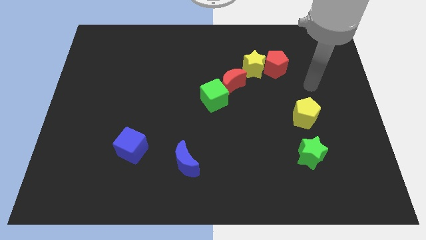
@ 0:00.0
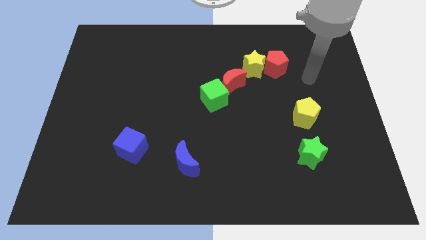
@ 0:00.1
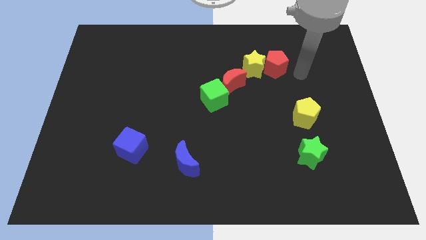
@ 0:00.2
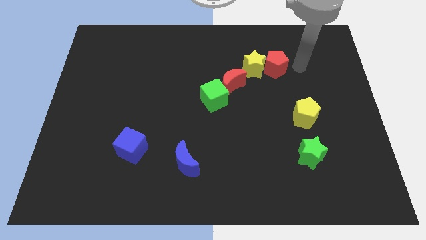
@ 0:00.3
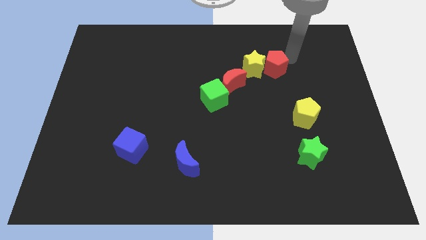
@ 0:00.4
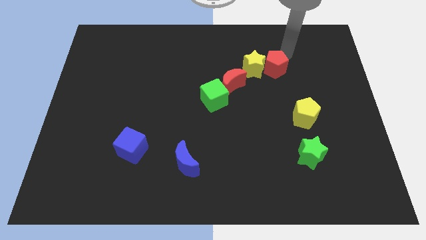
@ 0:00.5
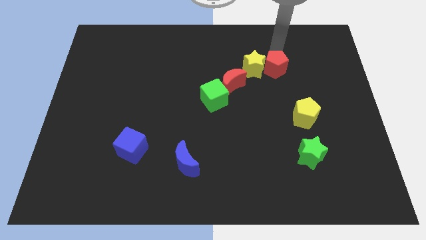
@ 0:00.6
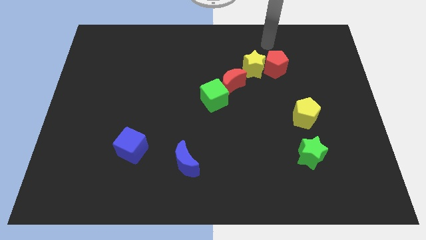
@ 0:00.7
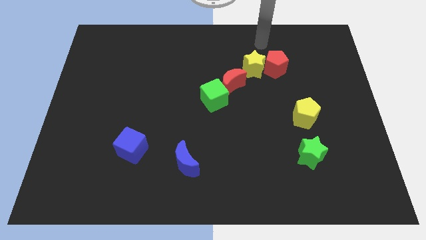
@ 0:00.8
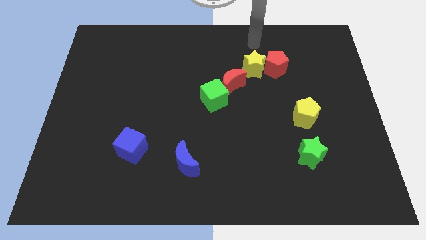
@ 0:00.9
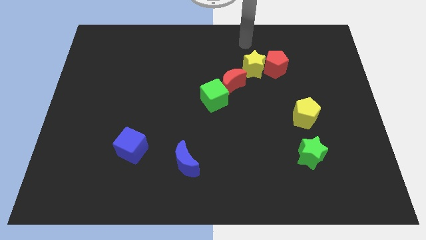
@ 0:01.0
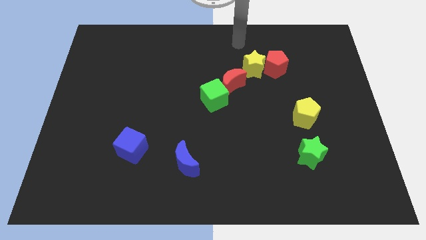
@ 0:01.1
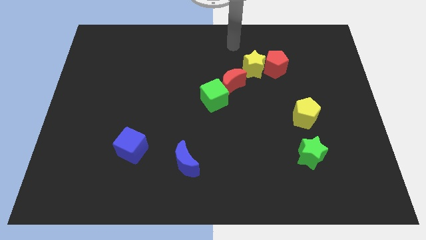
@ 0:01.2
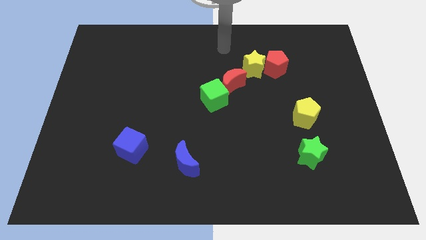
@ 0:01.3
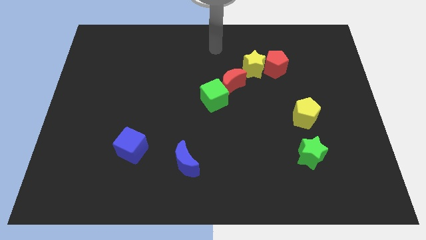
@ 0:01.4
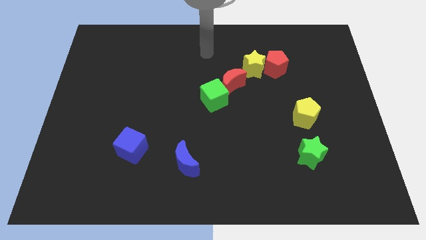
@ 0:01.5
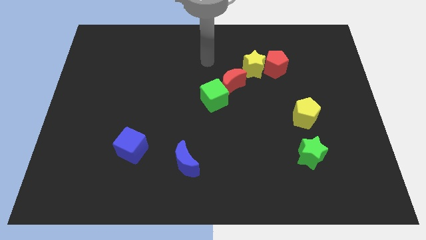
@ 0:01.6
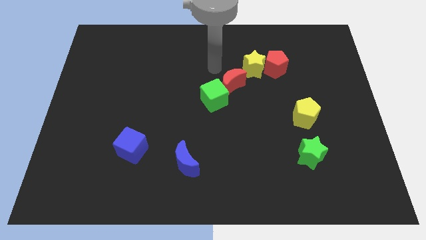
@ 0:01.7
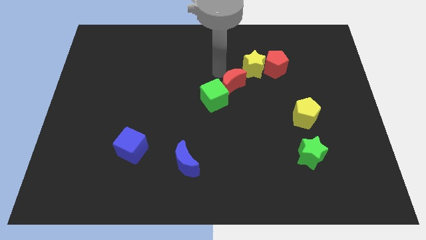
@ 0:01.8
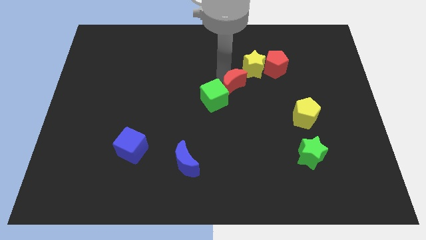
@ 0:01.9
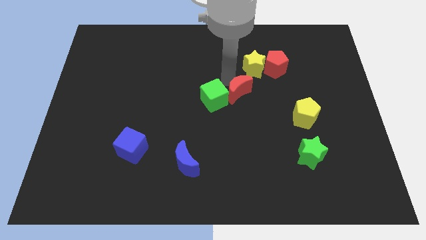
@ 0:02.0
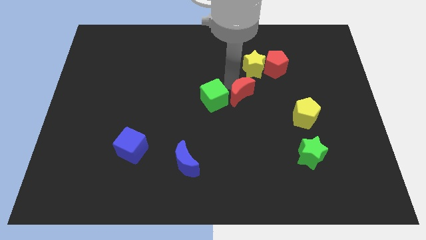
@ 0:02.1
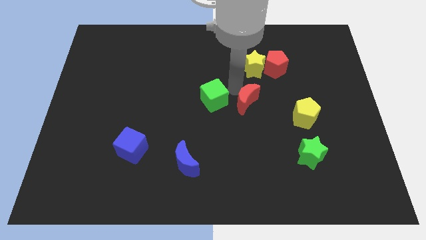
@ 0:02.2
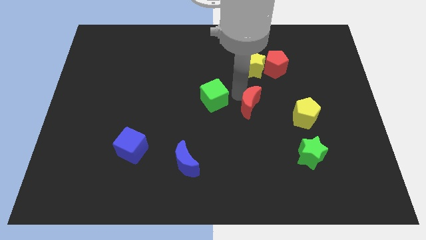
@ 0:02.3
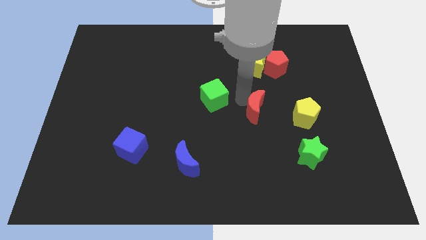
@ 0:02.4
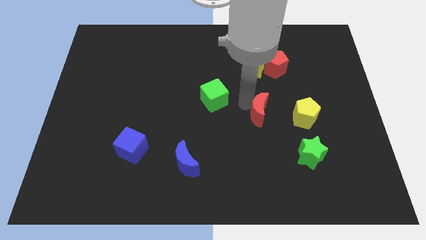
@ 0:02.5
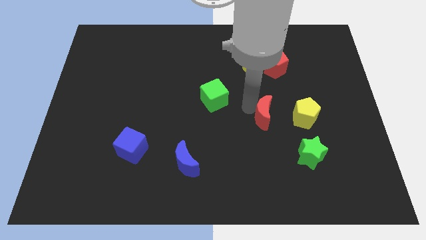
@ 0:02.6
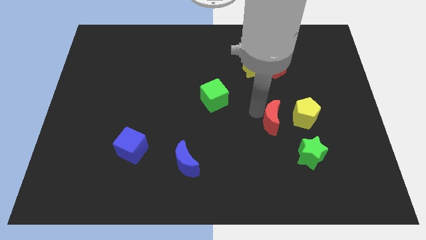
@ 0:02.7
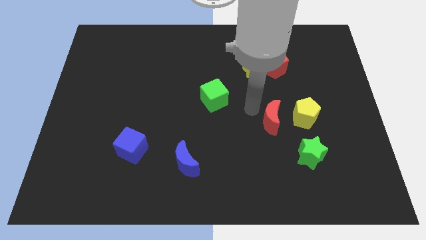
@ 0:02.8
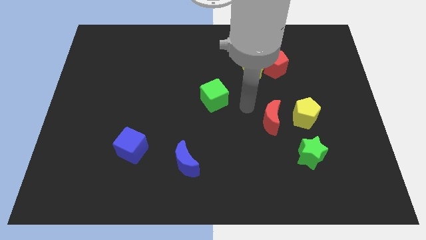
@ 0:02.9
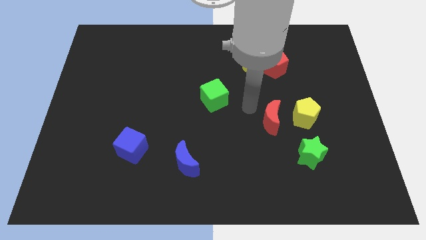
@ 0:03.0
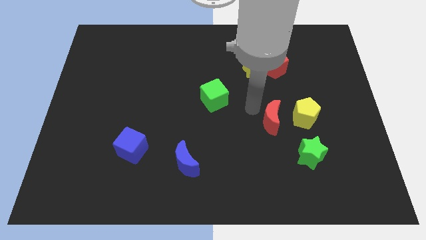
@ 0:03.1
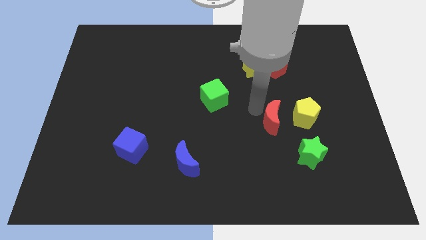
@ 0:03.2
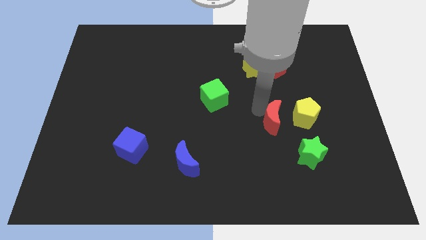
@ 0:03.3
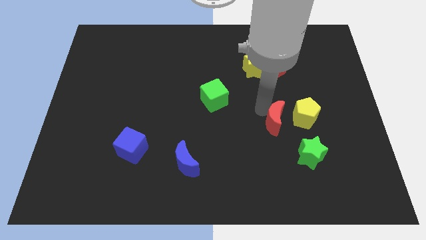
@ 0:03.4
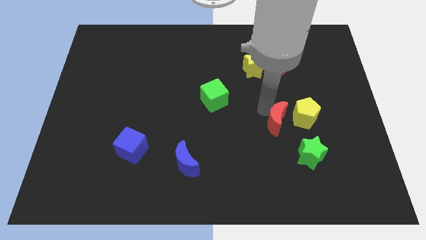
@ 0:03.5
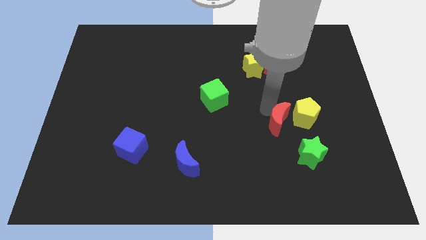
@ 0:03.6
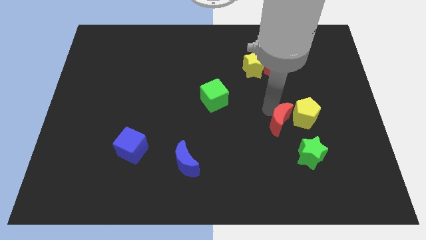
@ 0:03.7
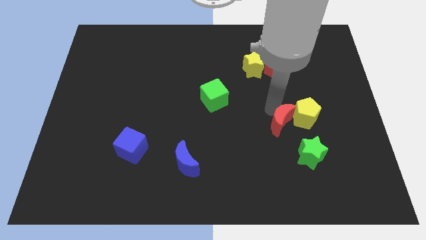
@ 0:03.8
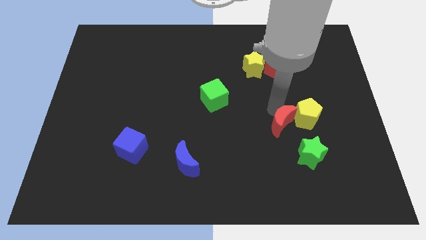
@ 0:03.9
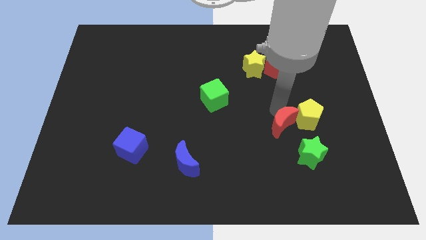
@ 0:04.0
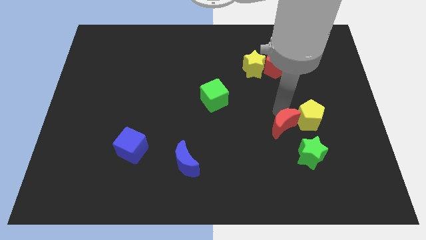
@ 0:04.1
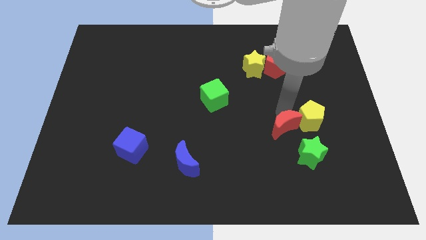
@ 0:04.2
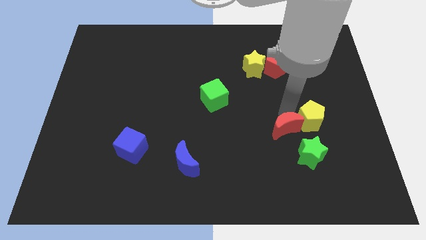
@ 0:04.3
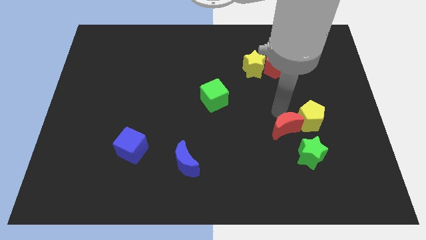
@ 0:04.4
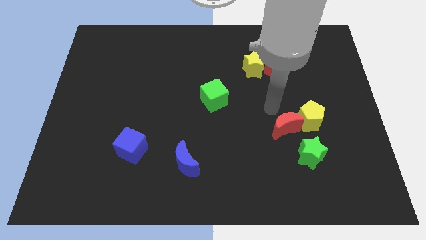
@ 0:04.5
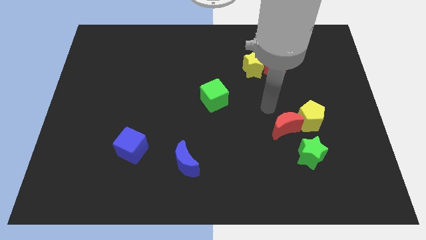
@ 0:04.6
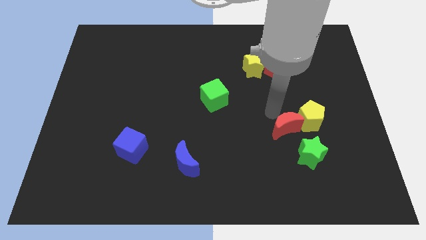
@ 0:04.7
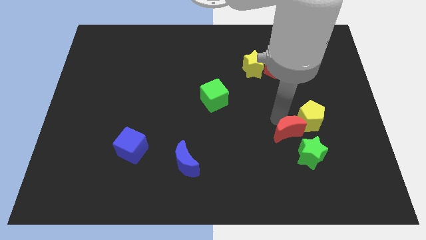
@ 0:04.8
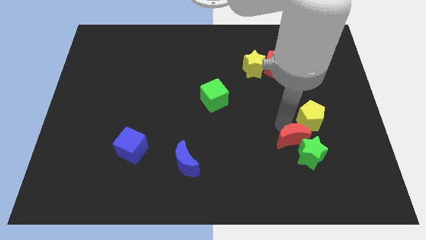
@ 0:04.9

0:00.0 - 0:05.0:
slide the red moon next to the green star

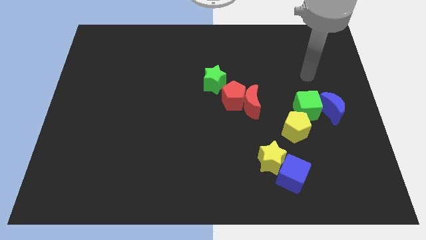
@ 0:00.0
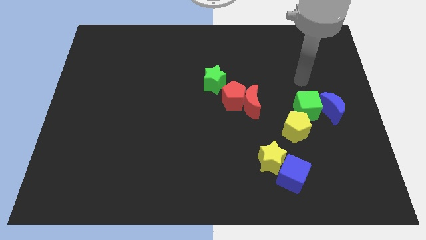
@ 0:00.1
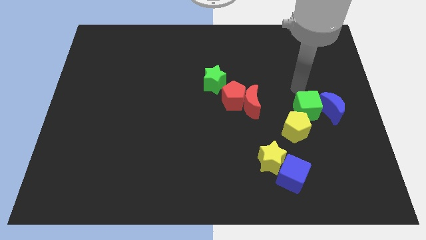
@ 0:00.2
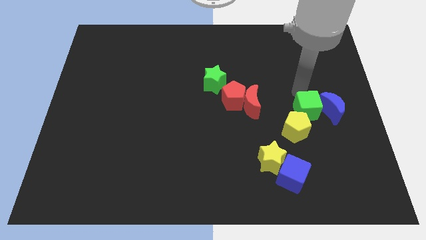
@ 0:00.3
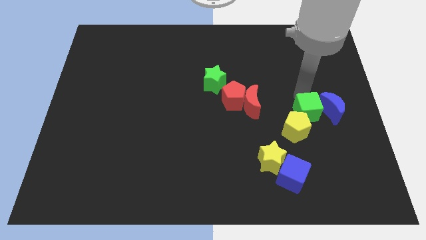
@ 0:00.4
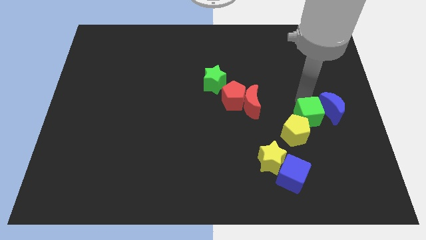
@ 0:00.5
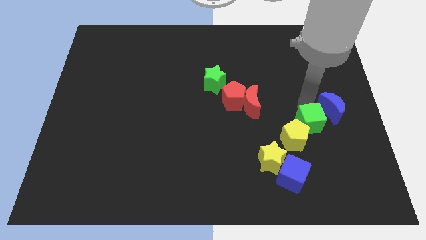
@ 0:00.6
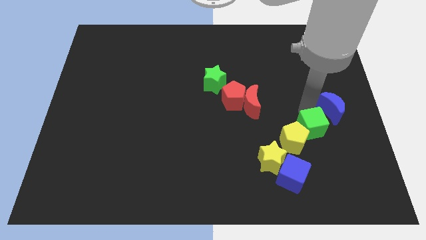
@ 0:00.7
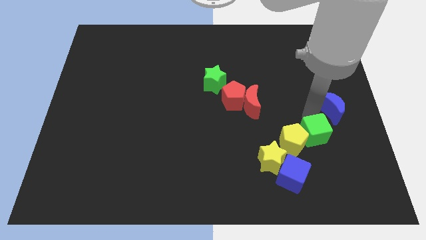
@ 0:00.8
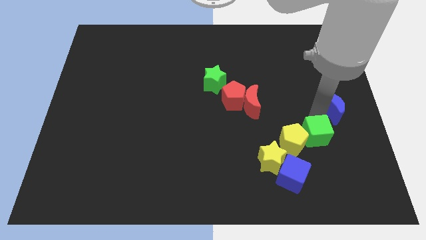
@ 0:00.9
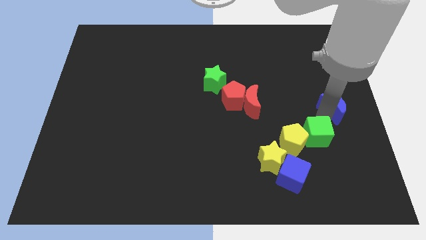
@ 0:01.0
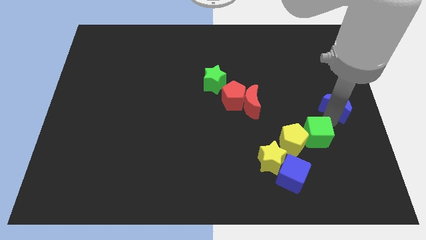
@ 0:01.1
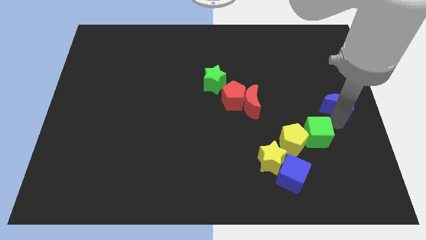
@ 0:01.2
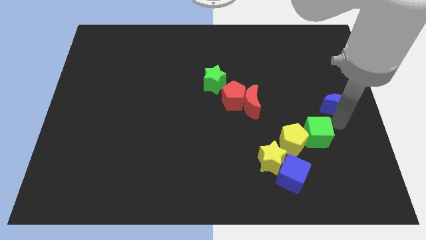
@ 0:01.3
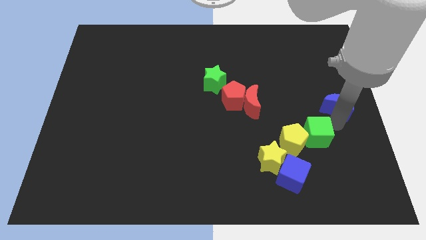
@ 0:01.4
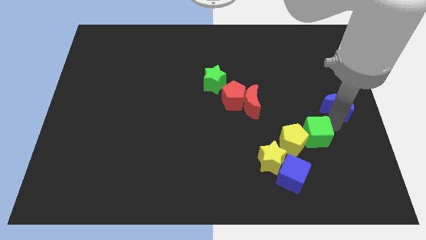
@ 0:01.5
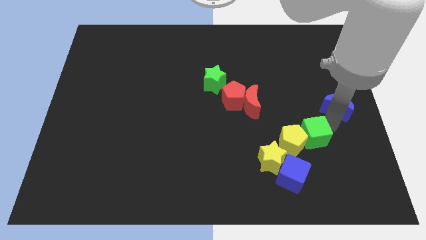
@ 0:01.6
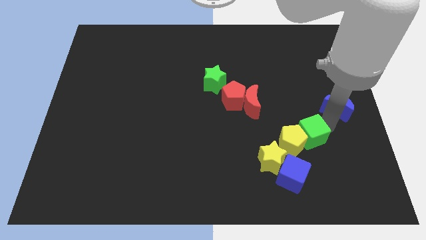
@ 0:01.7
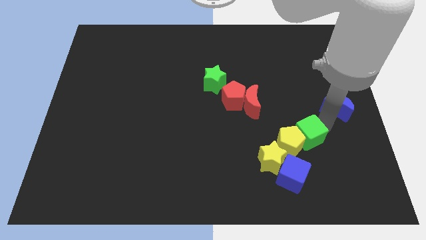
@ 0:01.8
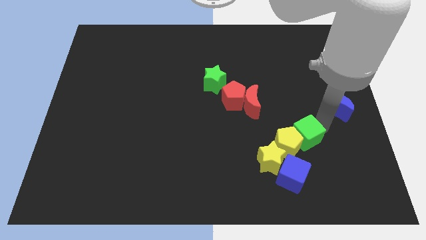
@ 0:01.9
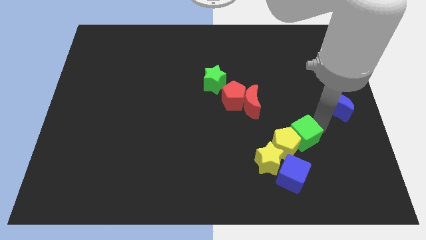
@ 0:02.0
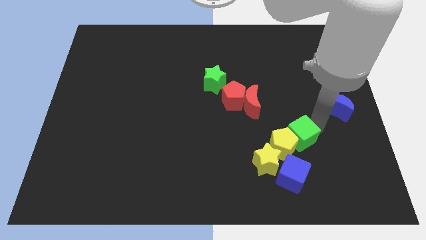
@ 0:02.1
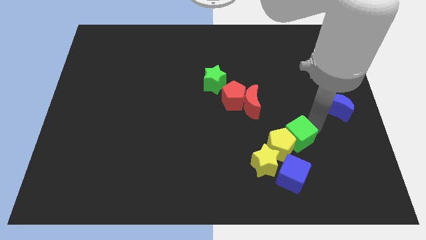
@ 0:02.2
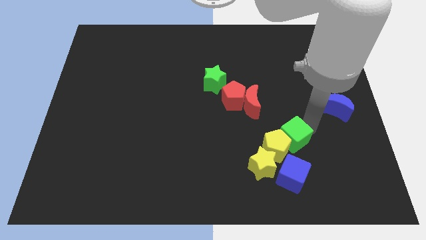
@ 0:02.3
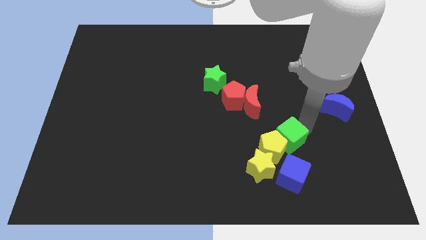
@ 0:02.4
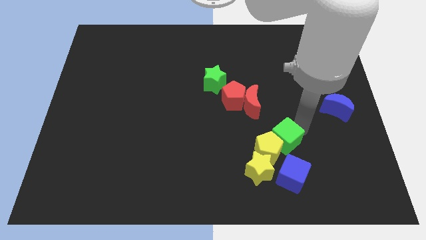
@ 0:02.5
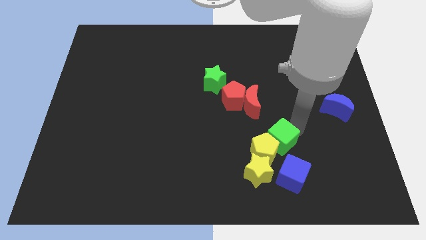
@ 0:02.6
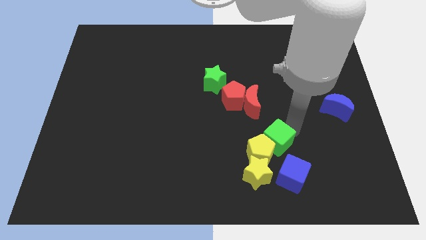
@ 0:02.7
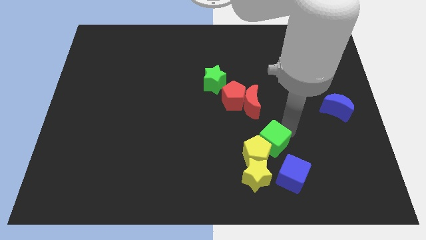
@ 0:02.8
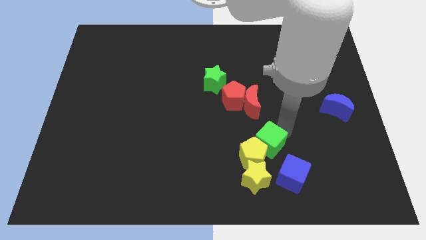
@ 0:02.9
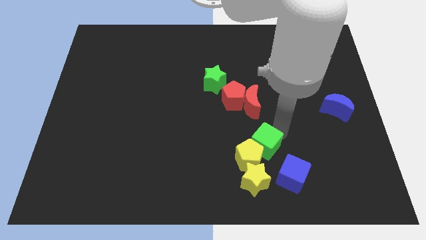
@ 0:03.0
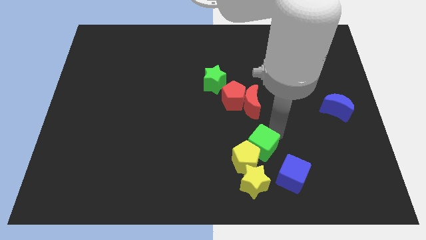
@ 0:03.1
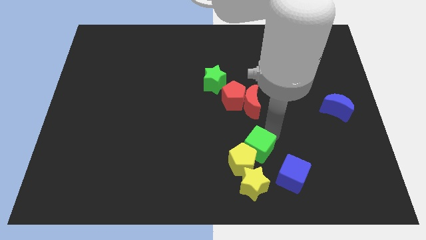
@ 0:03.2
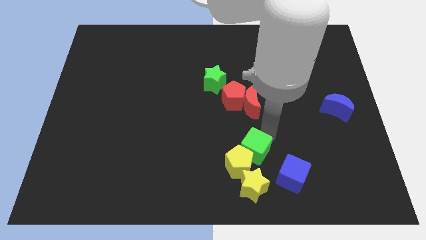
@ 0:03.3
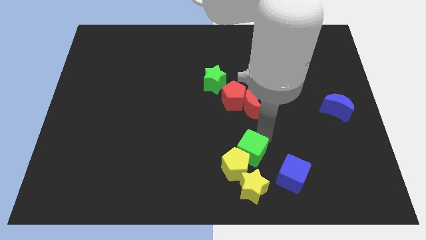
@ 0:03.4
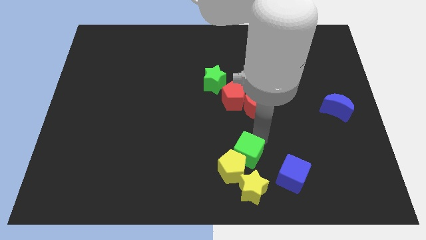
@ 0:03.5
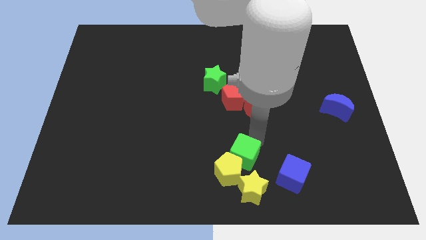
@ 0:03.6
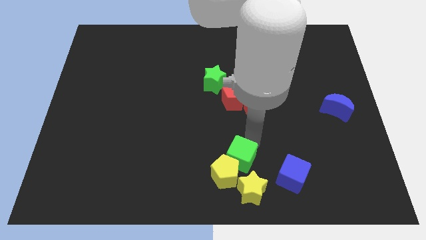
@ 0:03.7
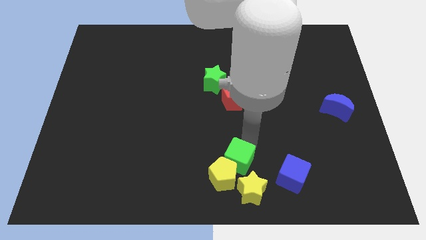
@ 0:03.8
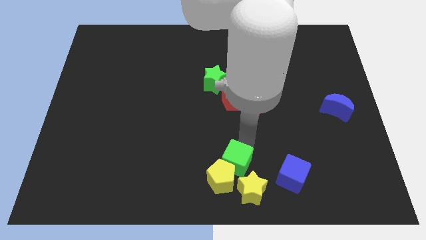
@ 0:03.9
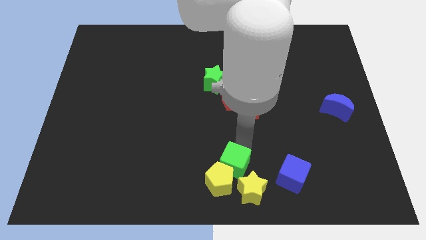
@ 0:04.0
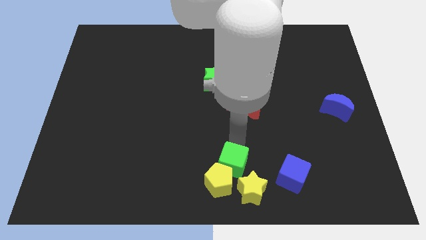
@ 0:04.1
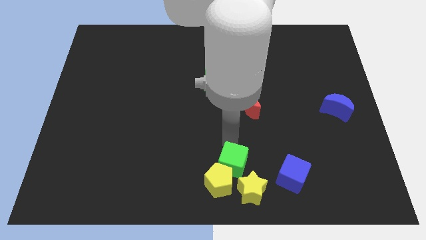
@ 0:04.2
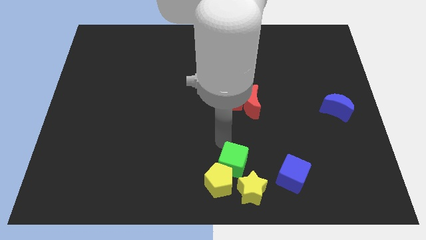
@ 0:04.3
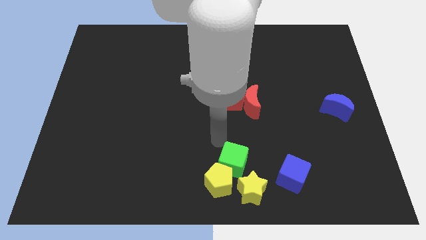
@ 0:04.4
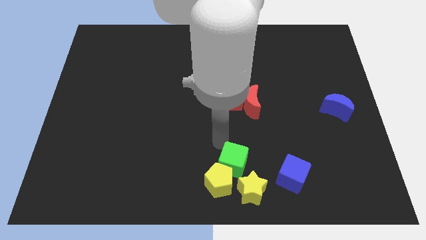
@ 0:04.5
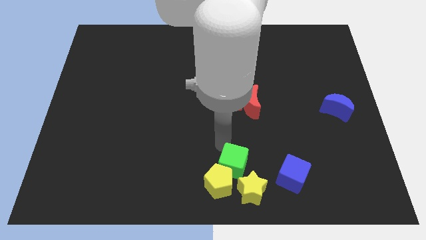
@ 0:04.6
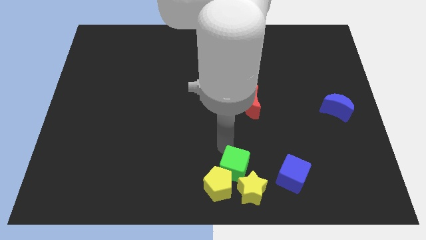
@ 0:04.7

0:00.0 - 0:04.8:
move the green cube close to the yellow star
